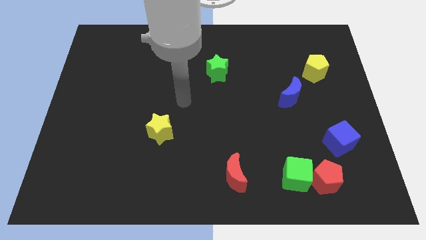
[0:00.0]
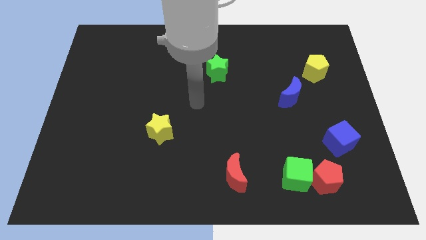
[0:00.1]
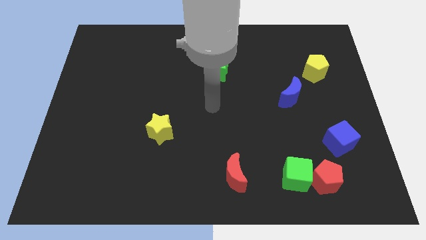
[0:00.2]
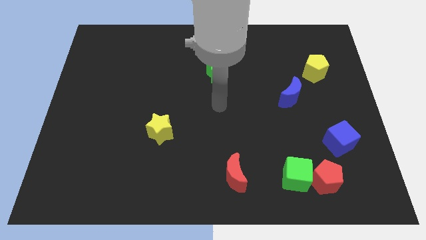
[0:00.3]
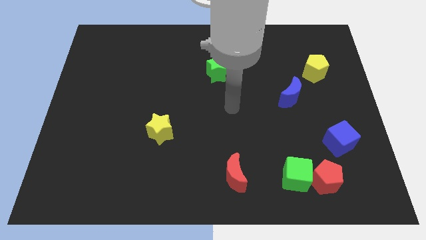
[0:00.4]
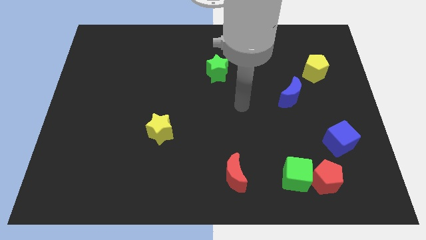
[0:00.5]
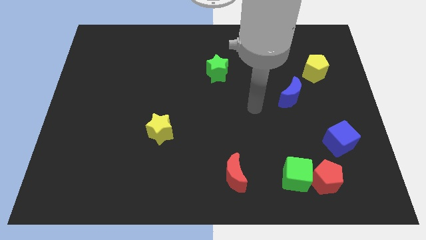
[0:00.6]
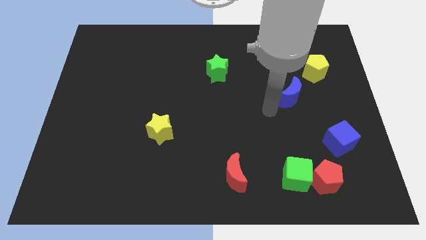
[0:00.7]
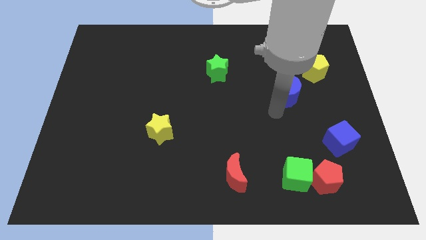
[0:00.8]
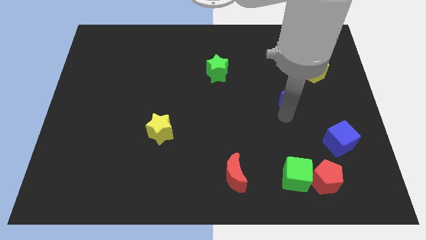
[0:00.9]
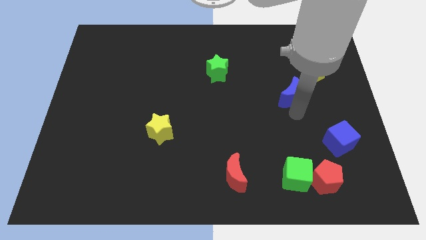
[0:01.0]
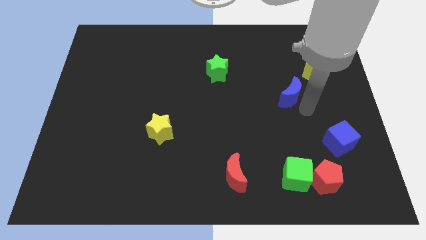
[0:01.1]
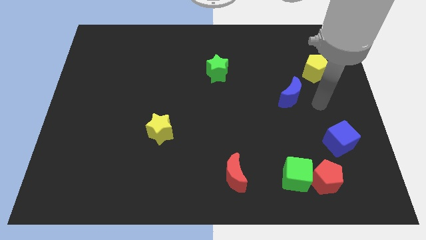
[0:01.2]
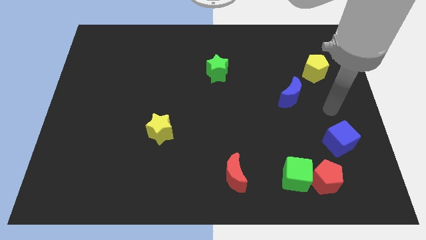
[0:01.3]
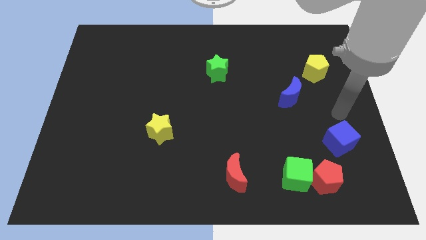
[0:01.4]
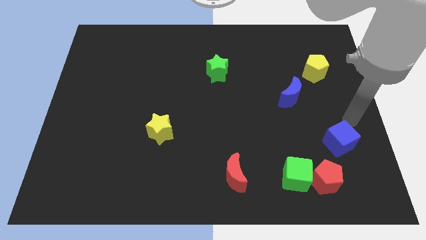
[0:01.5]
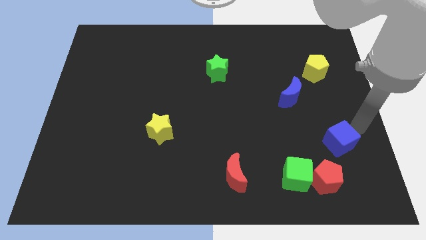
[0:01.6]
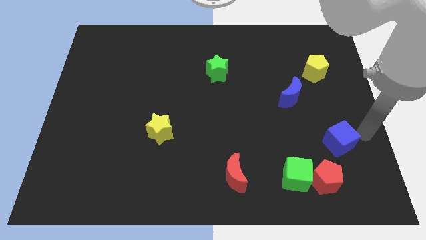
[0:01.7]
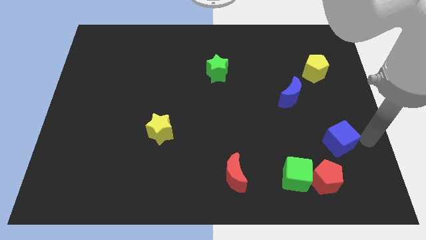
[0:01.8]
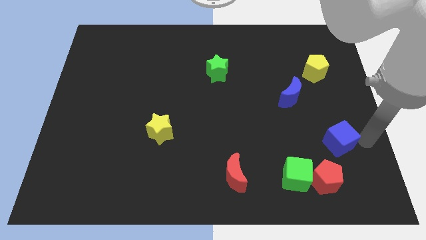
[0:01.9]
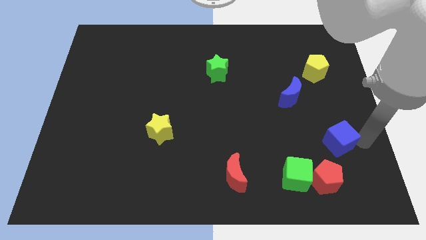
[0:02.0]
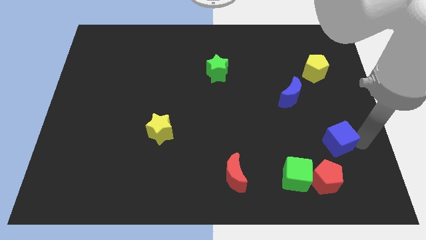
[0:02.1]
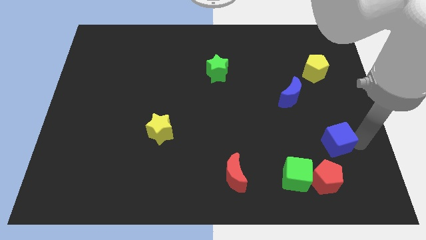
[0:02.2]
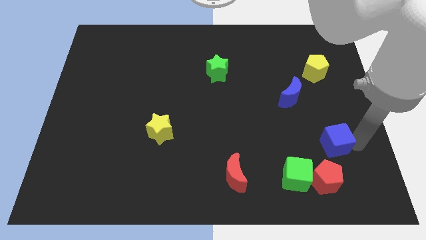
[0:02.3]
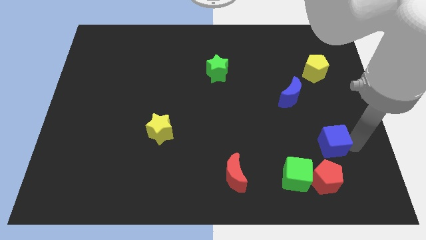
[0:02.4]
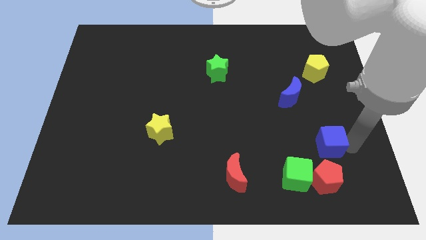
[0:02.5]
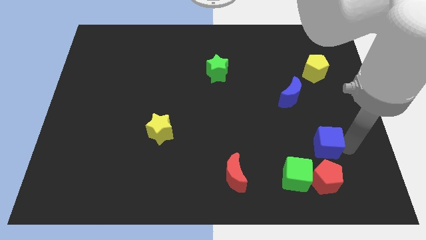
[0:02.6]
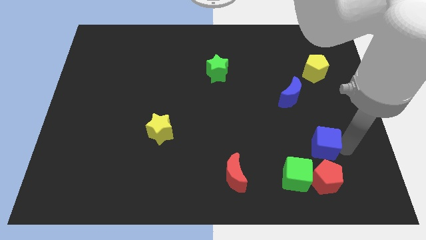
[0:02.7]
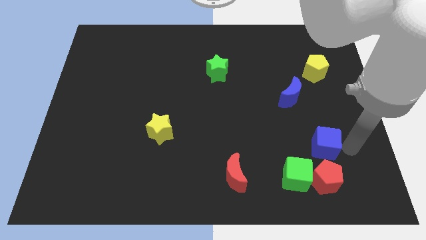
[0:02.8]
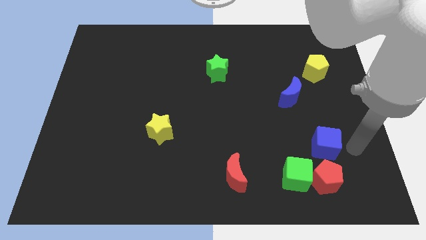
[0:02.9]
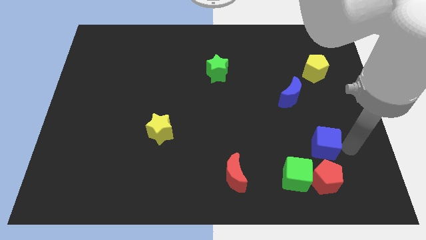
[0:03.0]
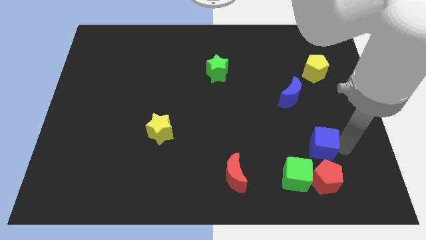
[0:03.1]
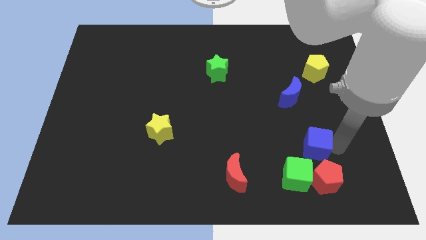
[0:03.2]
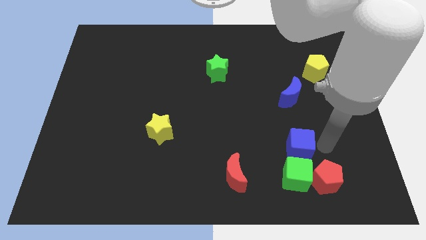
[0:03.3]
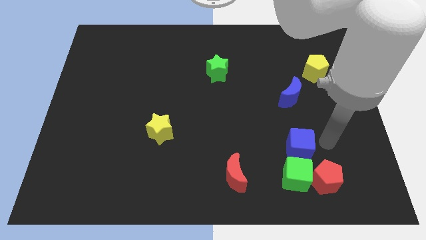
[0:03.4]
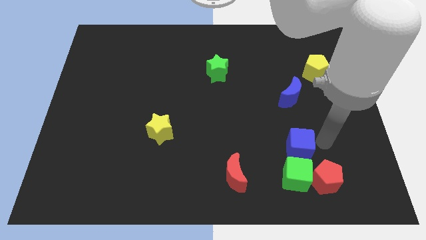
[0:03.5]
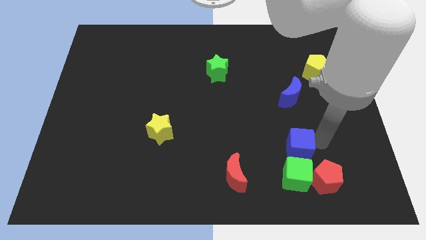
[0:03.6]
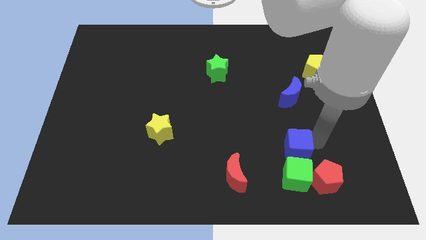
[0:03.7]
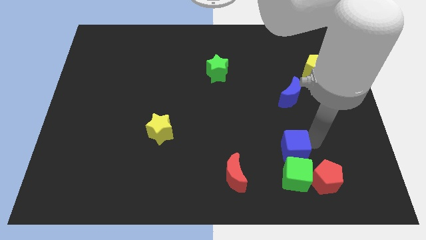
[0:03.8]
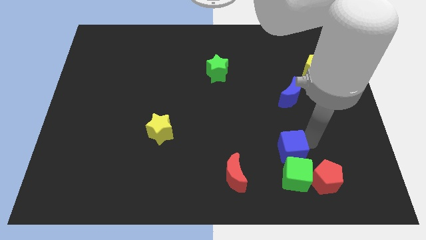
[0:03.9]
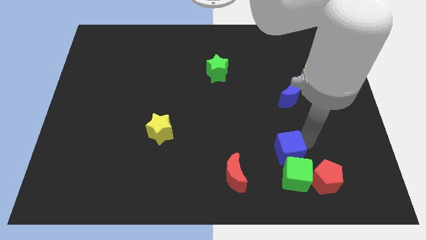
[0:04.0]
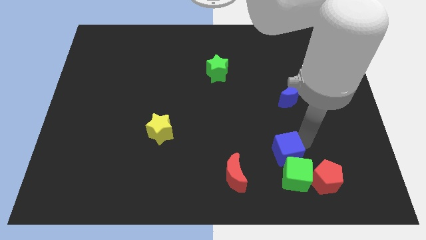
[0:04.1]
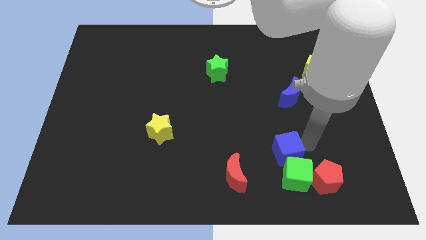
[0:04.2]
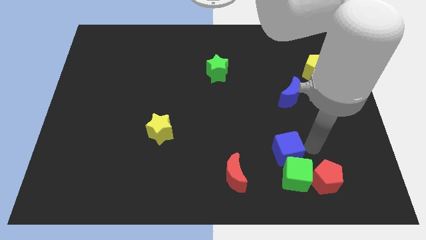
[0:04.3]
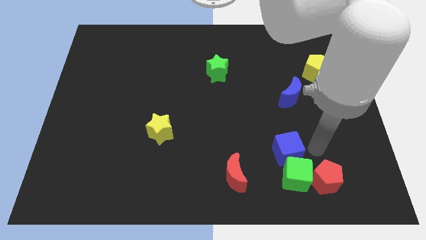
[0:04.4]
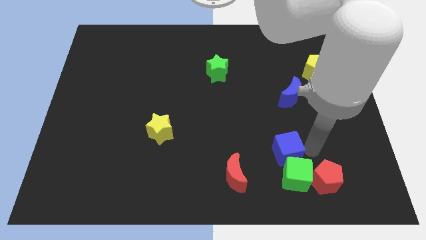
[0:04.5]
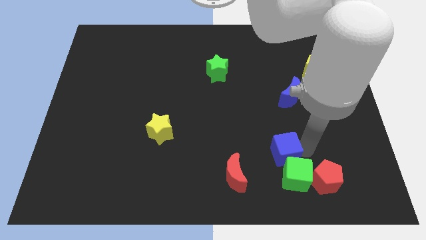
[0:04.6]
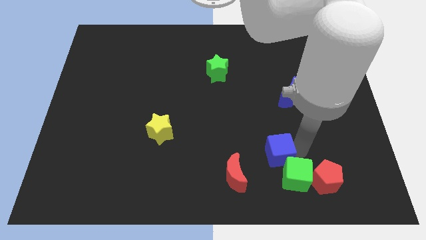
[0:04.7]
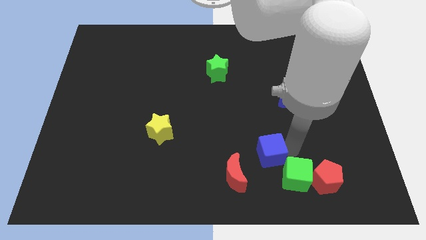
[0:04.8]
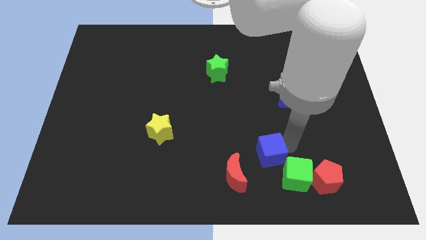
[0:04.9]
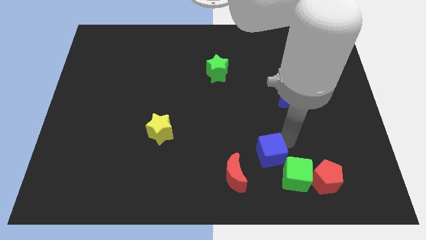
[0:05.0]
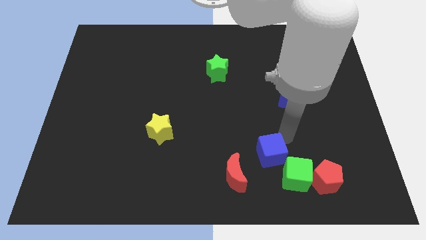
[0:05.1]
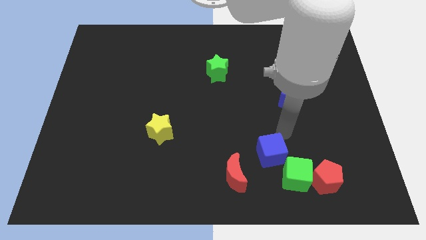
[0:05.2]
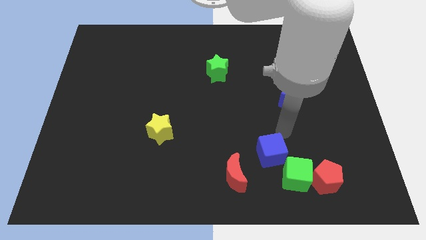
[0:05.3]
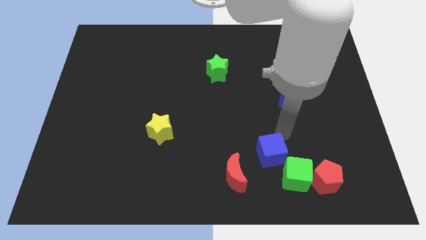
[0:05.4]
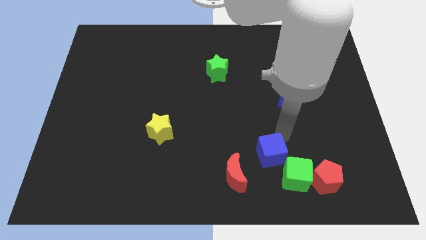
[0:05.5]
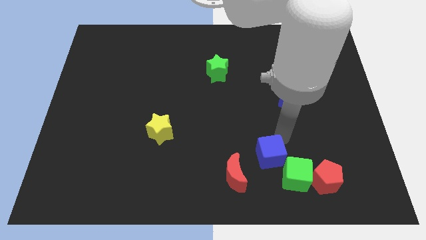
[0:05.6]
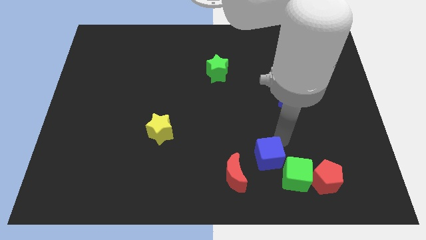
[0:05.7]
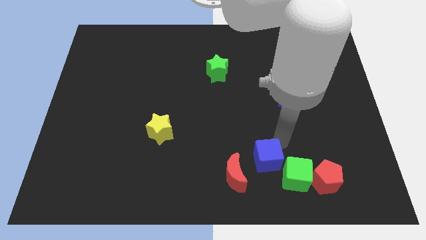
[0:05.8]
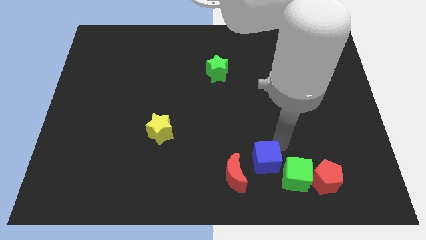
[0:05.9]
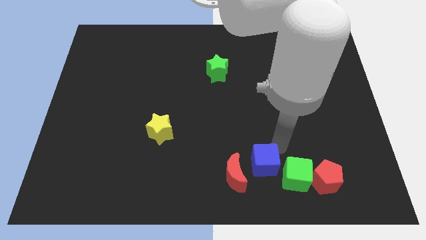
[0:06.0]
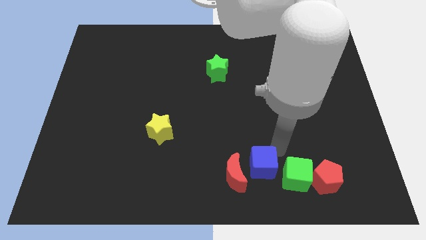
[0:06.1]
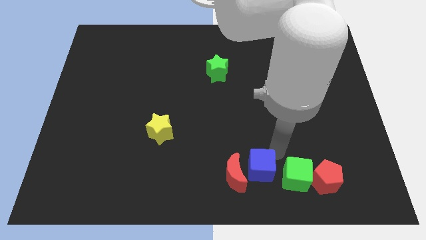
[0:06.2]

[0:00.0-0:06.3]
slide the blue cube to the bottom

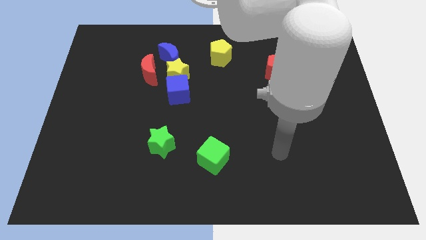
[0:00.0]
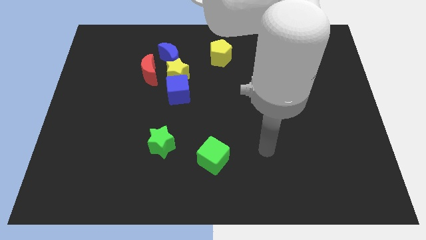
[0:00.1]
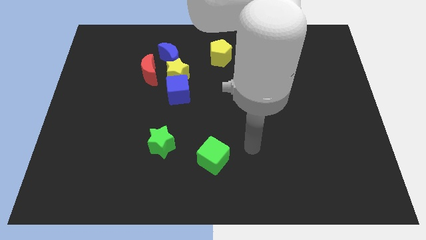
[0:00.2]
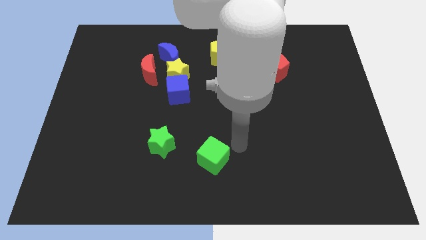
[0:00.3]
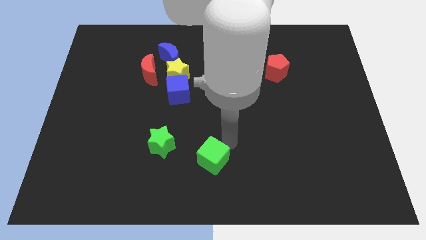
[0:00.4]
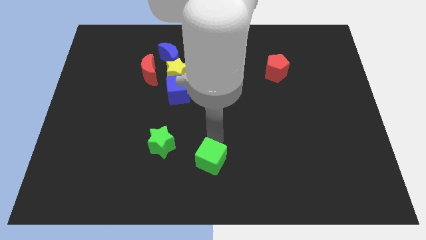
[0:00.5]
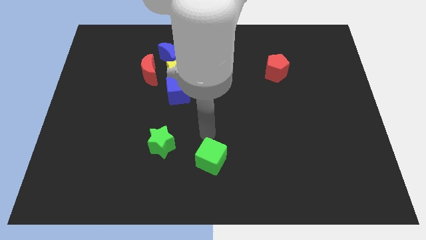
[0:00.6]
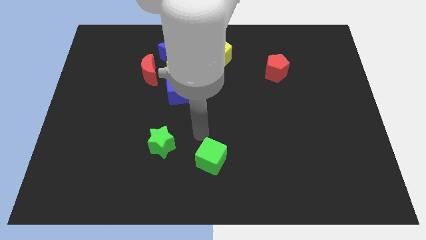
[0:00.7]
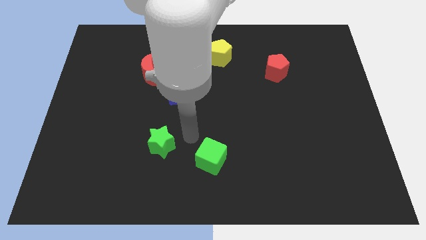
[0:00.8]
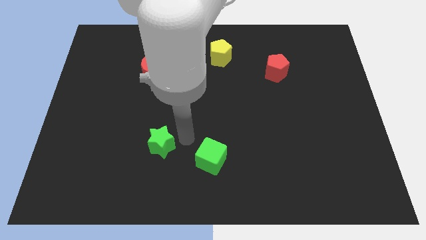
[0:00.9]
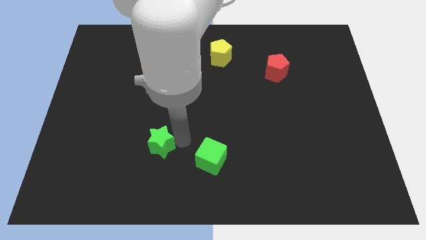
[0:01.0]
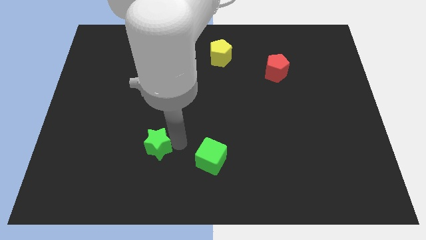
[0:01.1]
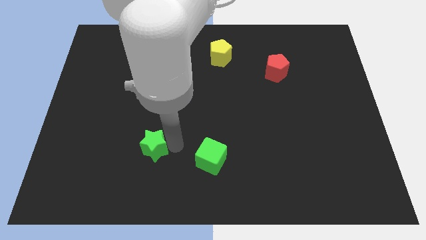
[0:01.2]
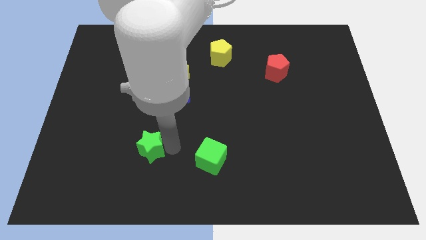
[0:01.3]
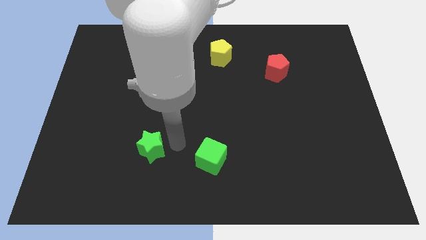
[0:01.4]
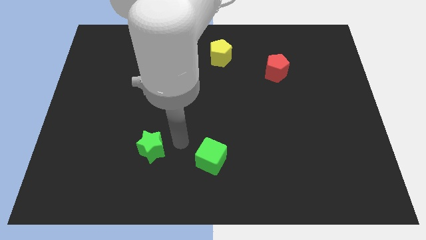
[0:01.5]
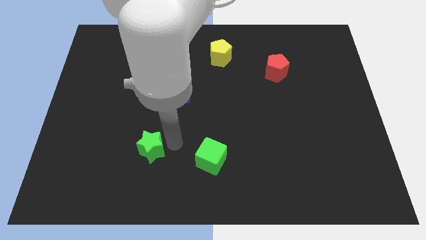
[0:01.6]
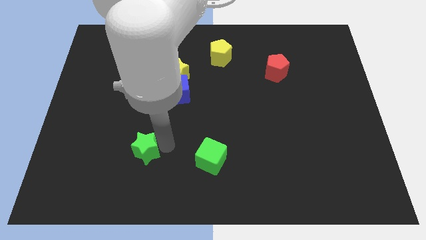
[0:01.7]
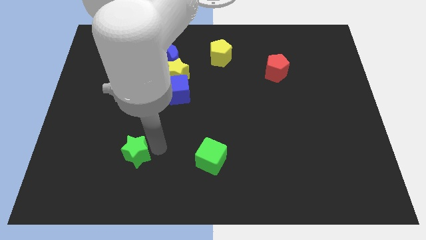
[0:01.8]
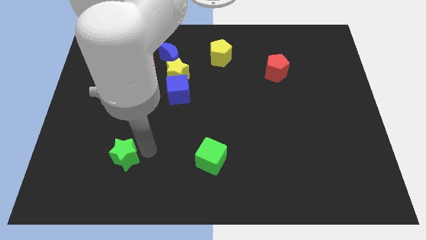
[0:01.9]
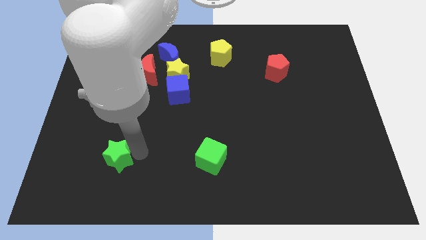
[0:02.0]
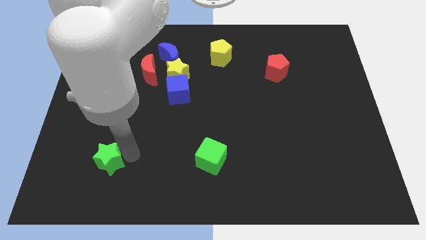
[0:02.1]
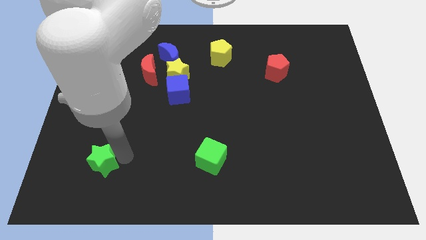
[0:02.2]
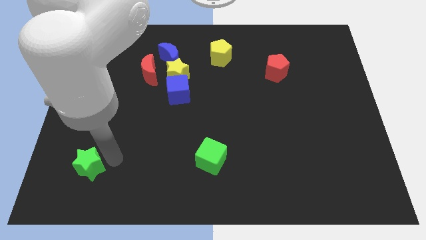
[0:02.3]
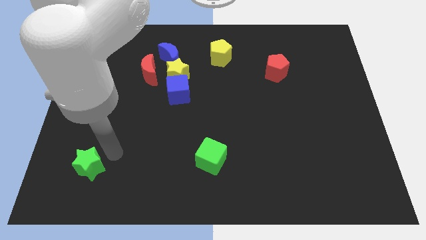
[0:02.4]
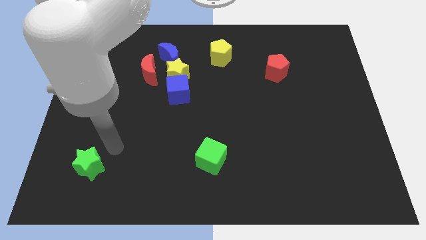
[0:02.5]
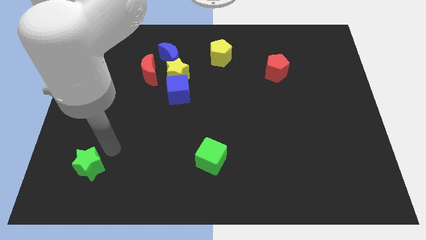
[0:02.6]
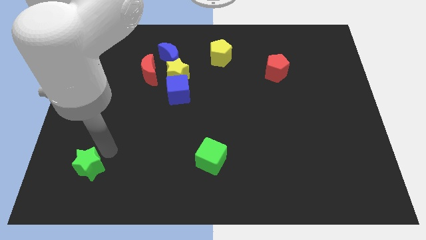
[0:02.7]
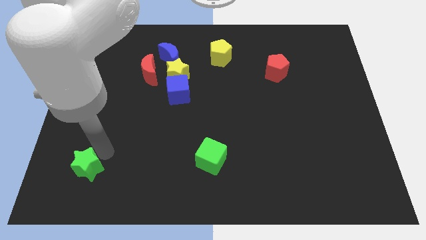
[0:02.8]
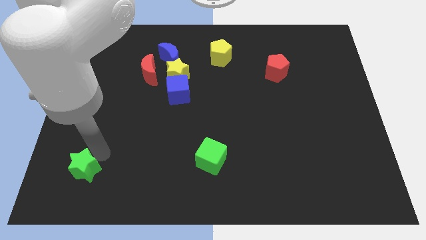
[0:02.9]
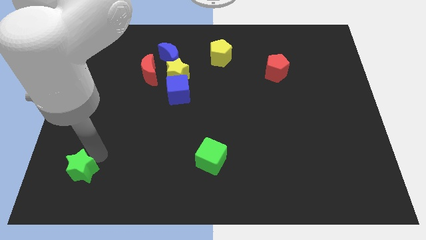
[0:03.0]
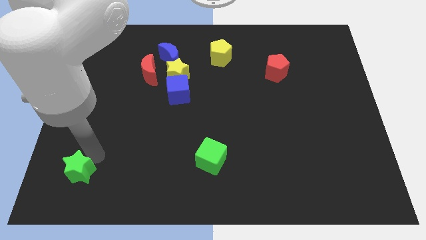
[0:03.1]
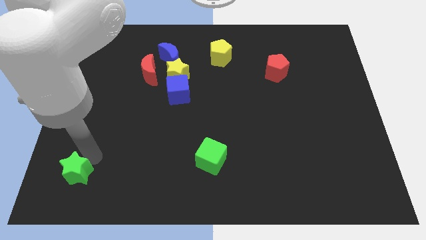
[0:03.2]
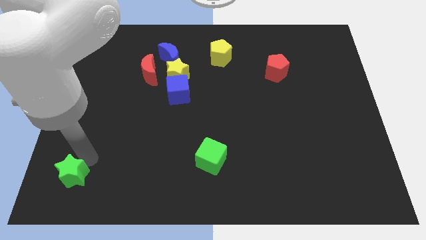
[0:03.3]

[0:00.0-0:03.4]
push the green star to the bottom left of the board
